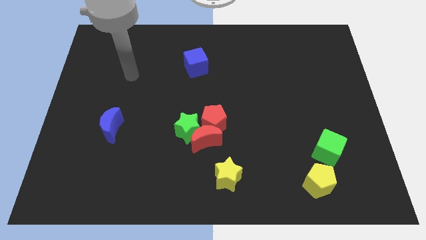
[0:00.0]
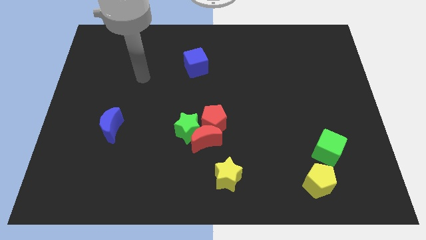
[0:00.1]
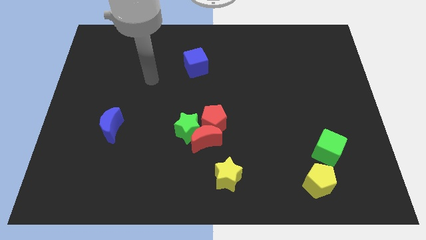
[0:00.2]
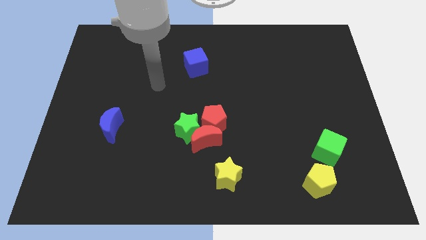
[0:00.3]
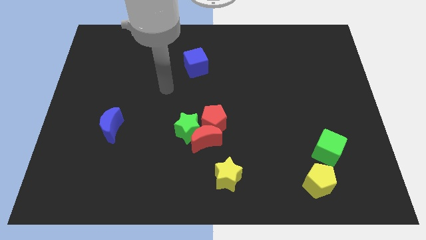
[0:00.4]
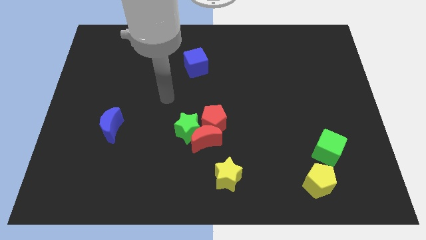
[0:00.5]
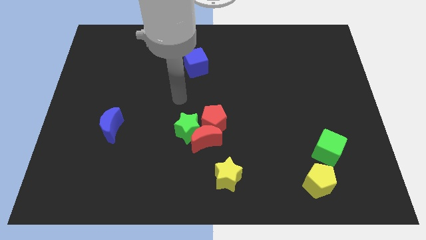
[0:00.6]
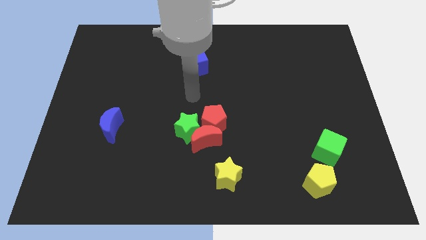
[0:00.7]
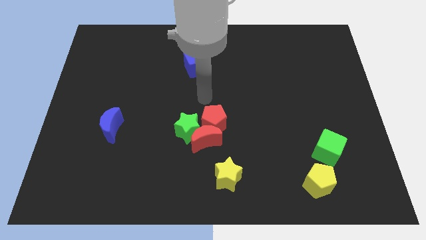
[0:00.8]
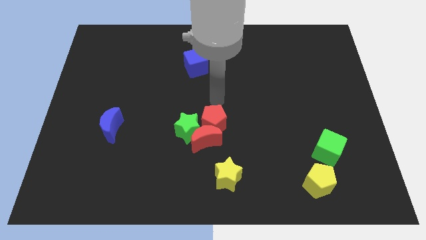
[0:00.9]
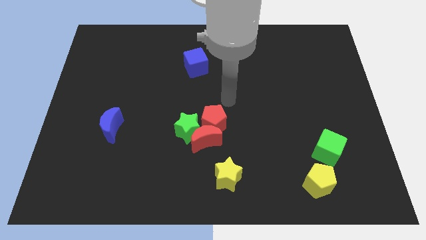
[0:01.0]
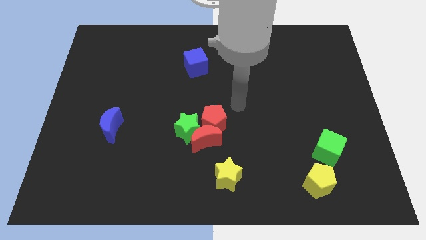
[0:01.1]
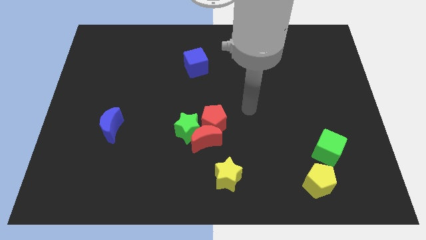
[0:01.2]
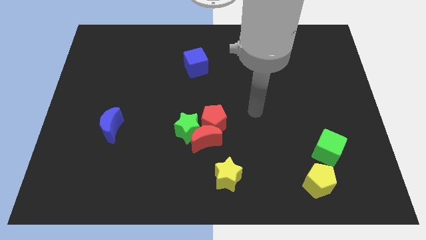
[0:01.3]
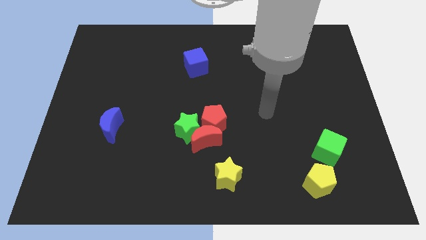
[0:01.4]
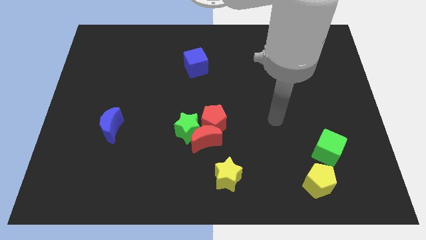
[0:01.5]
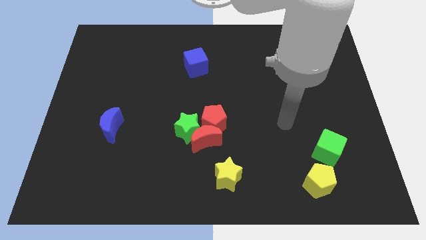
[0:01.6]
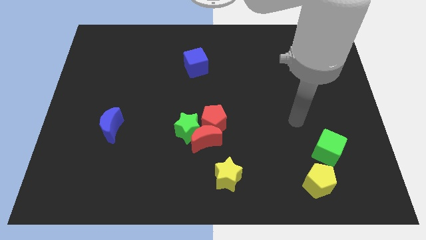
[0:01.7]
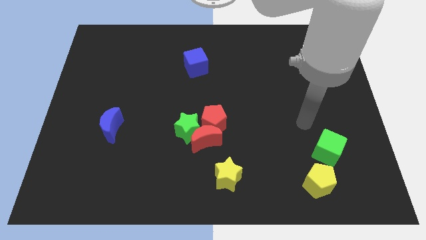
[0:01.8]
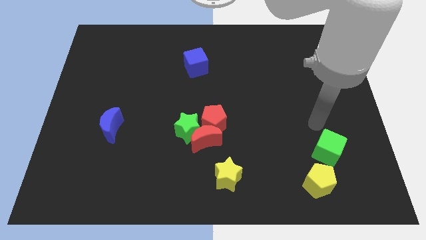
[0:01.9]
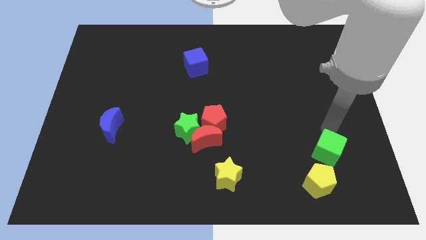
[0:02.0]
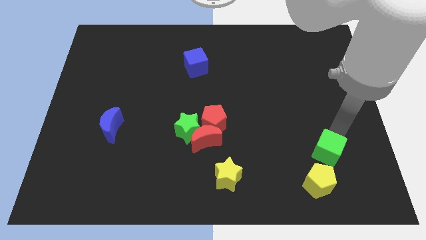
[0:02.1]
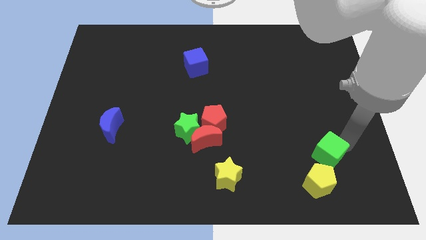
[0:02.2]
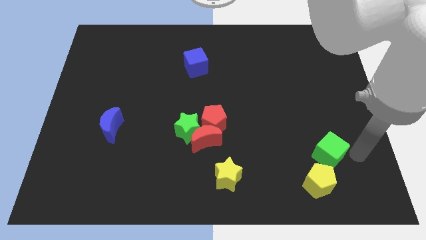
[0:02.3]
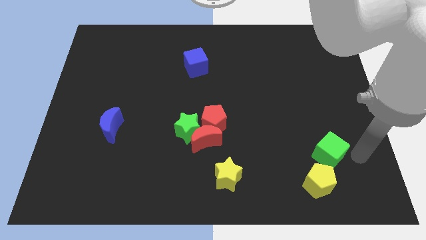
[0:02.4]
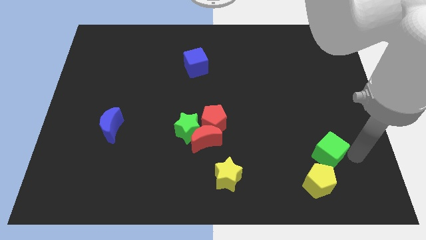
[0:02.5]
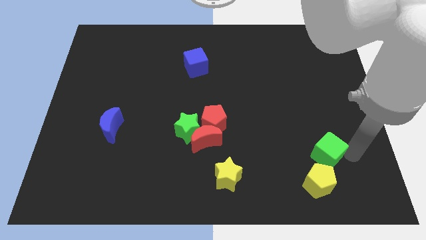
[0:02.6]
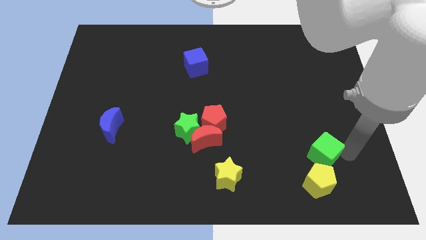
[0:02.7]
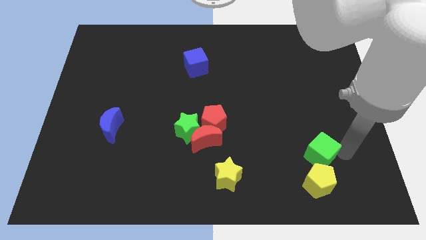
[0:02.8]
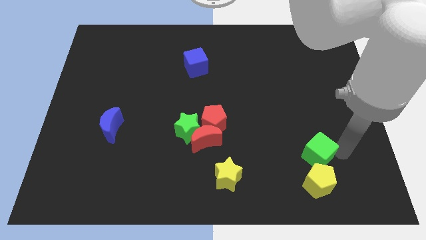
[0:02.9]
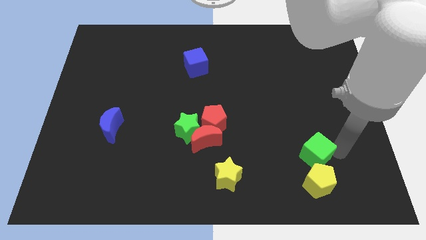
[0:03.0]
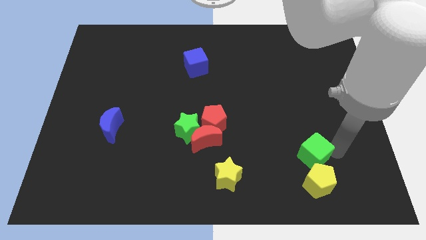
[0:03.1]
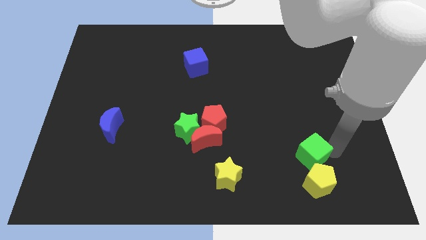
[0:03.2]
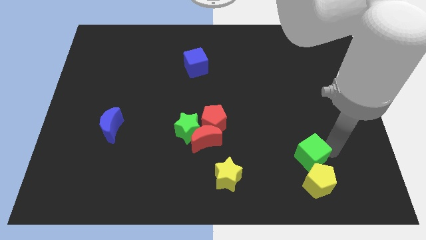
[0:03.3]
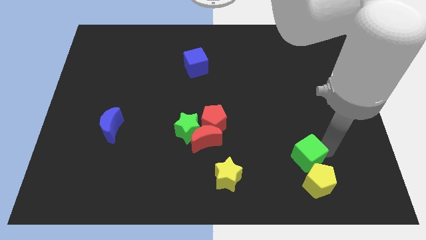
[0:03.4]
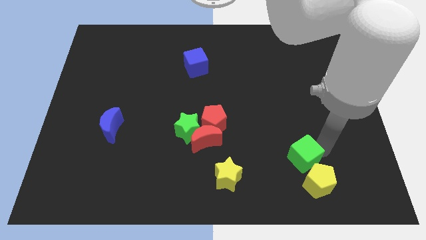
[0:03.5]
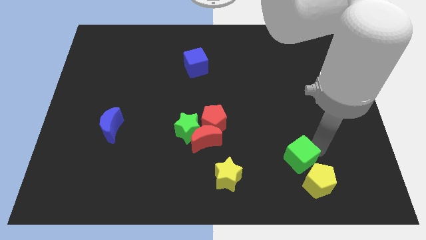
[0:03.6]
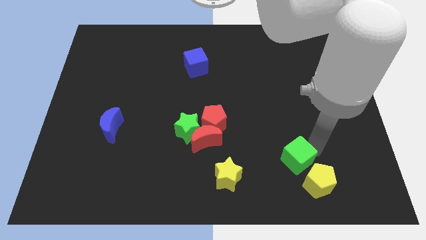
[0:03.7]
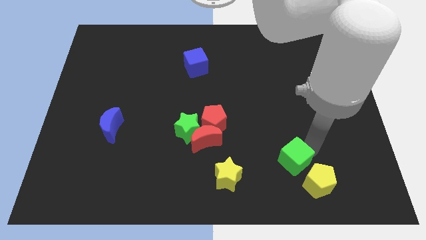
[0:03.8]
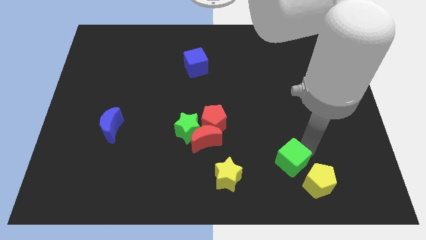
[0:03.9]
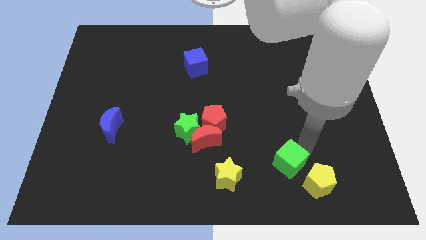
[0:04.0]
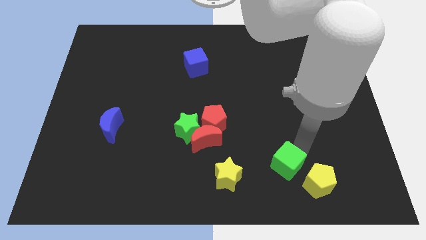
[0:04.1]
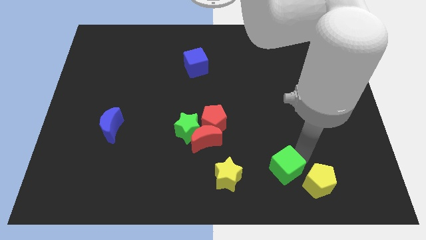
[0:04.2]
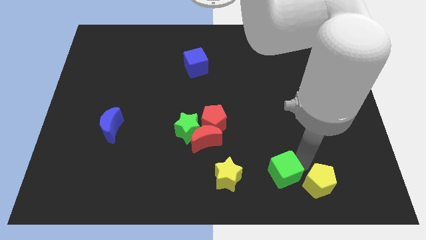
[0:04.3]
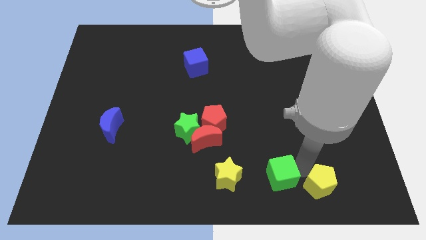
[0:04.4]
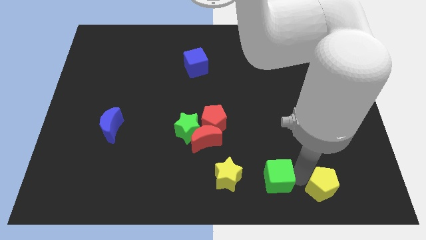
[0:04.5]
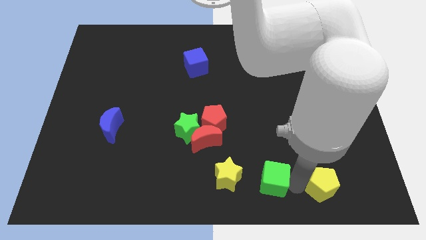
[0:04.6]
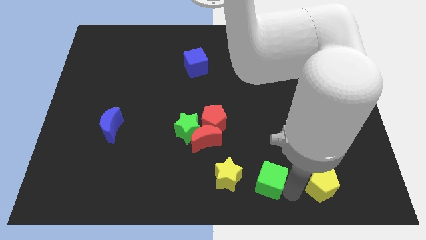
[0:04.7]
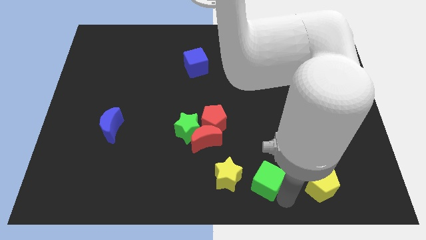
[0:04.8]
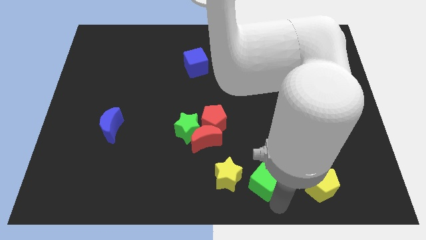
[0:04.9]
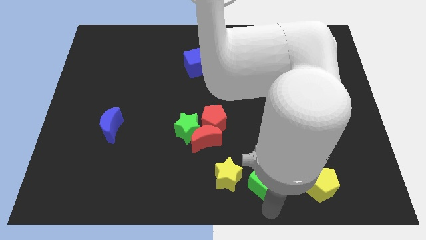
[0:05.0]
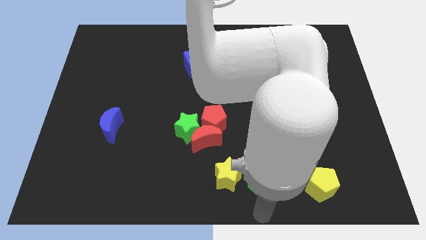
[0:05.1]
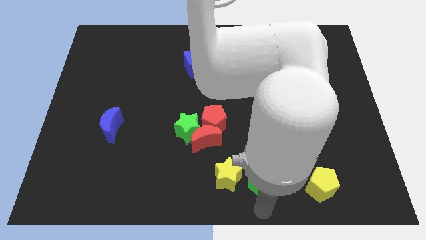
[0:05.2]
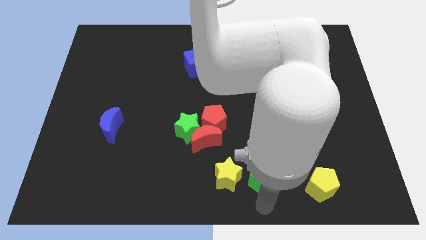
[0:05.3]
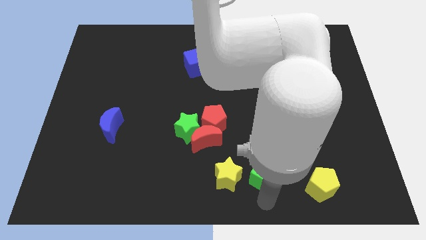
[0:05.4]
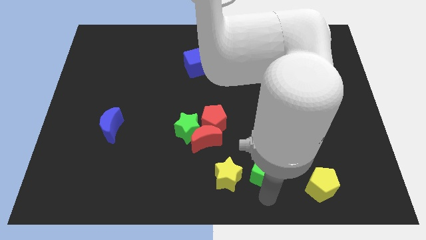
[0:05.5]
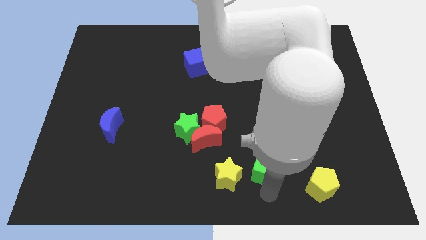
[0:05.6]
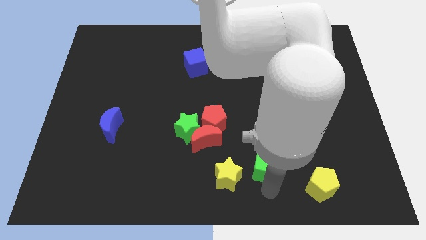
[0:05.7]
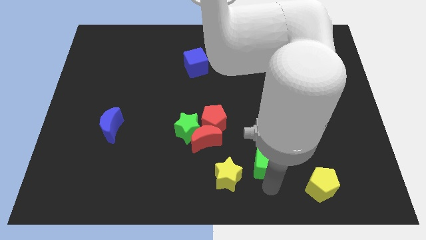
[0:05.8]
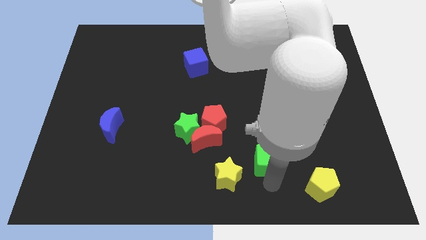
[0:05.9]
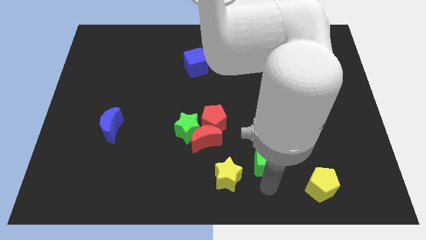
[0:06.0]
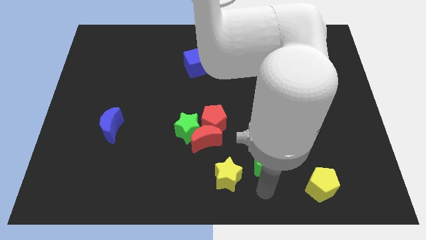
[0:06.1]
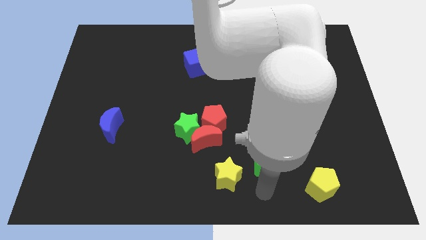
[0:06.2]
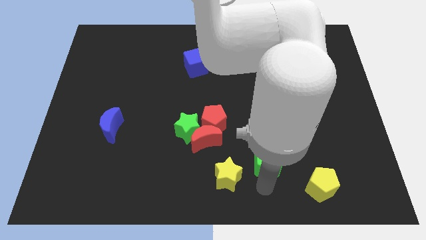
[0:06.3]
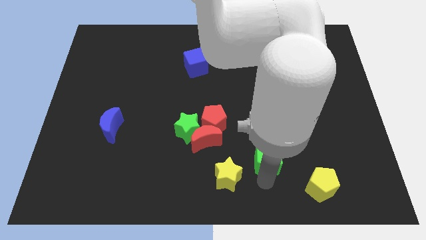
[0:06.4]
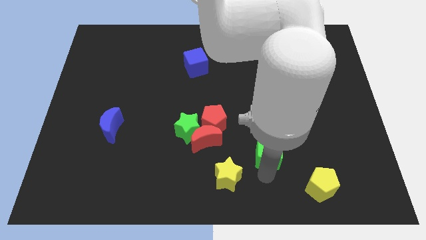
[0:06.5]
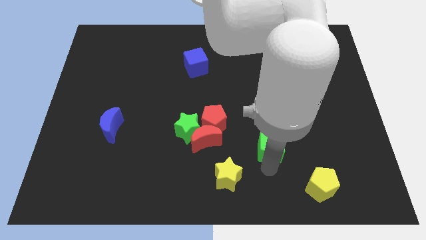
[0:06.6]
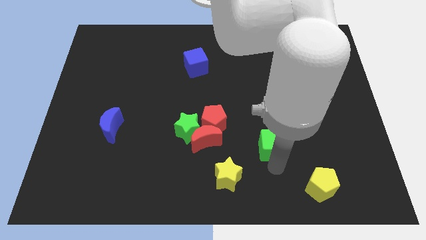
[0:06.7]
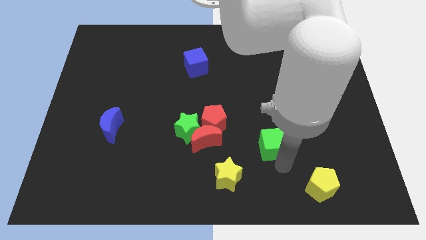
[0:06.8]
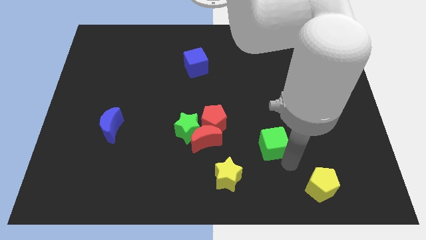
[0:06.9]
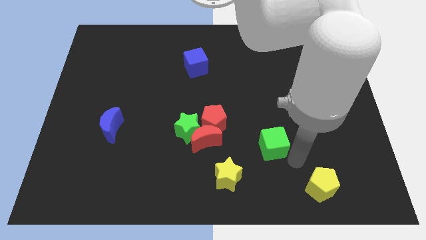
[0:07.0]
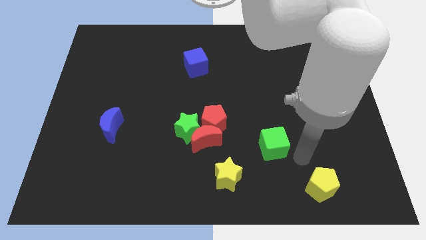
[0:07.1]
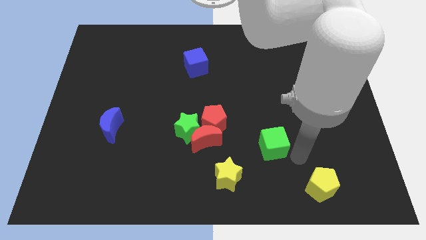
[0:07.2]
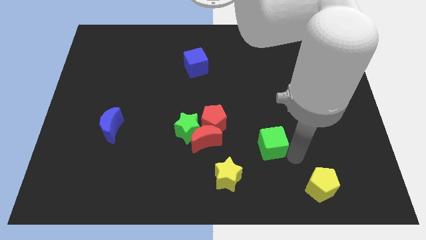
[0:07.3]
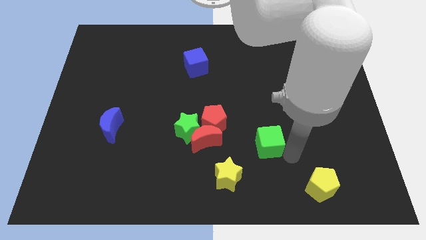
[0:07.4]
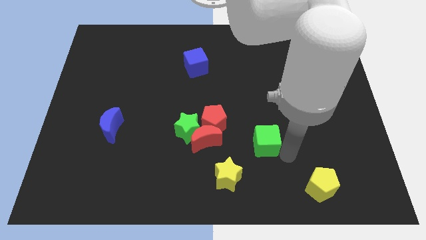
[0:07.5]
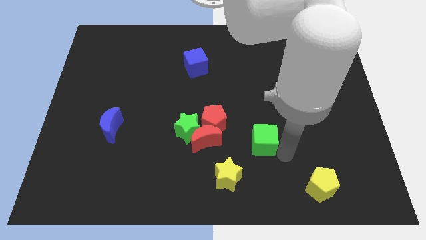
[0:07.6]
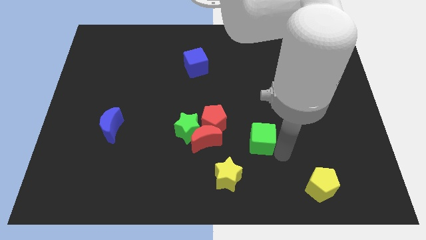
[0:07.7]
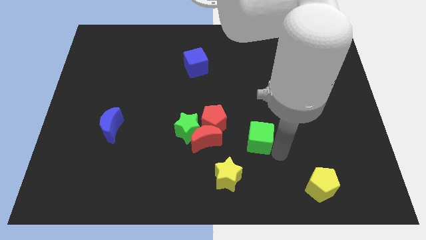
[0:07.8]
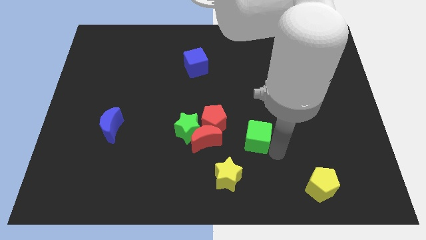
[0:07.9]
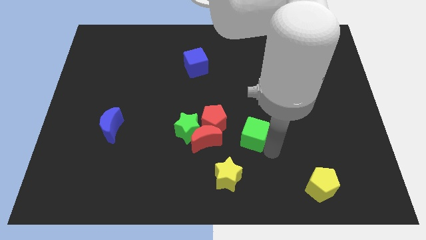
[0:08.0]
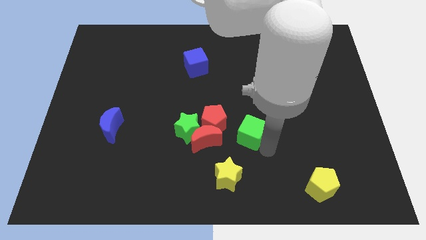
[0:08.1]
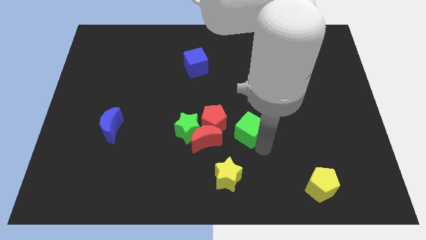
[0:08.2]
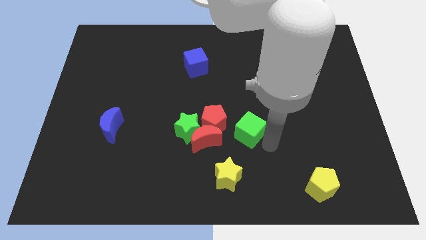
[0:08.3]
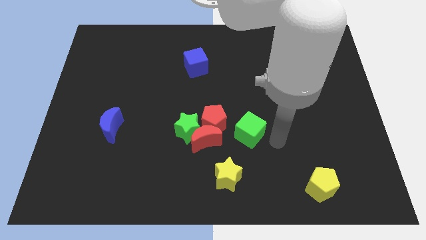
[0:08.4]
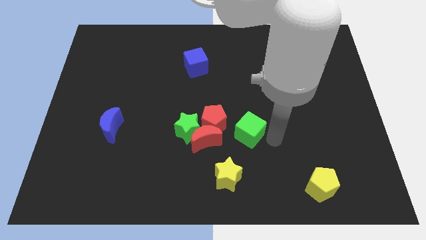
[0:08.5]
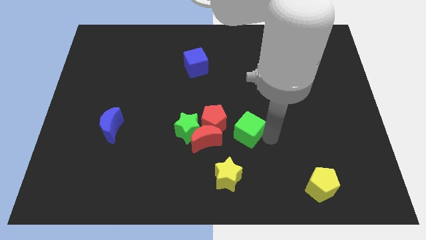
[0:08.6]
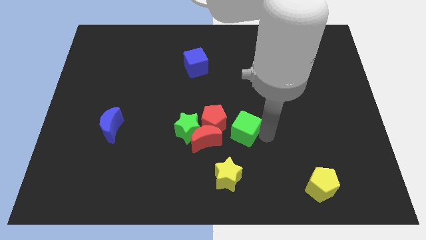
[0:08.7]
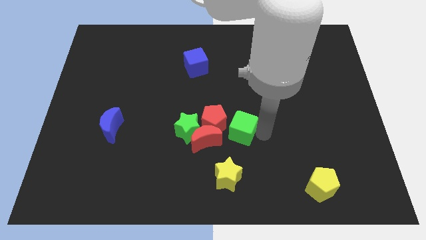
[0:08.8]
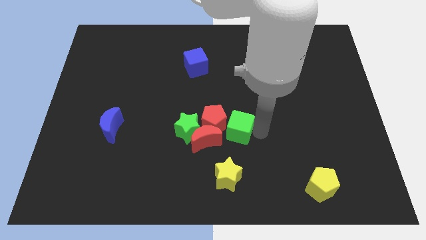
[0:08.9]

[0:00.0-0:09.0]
push the green cube towards the red pentagon
